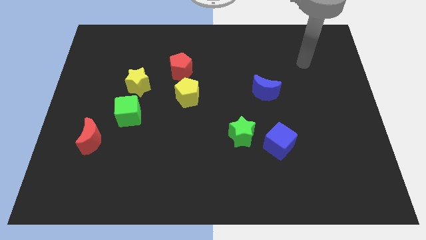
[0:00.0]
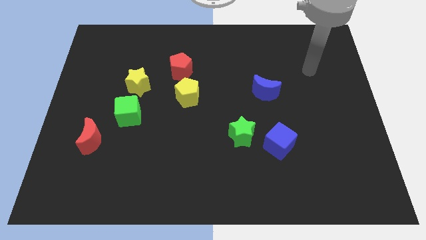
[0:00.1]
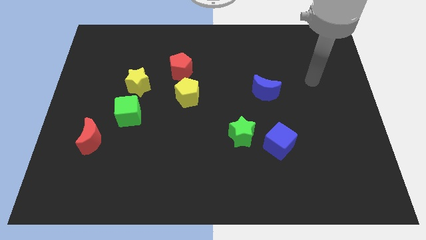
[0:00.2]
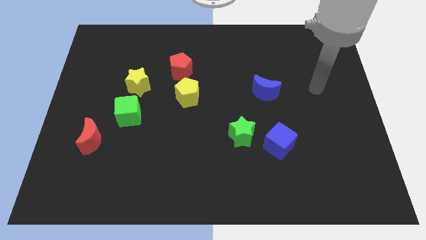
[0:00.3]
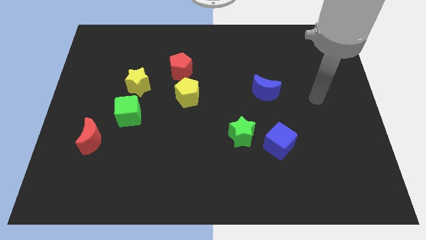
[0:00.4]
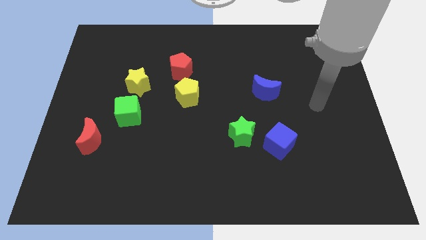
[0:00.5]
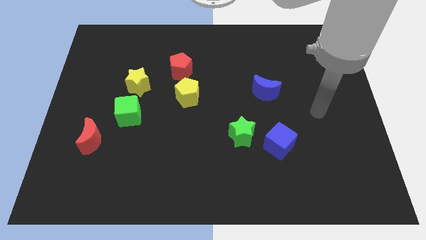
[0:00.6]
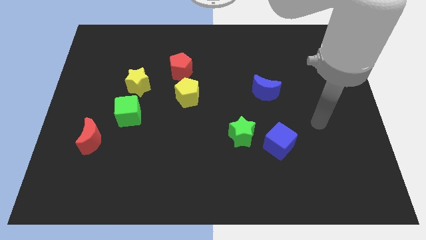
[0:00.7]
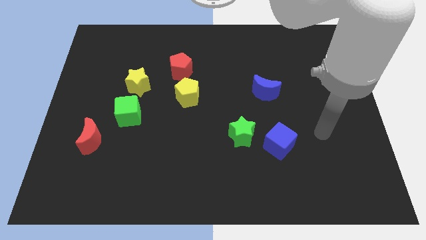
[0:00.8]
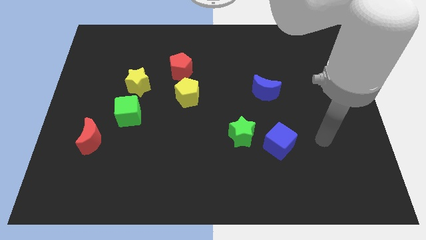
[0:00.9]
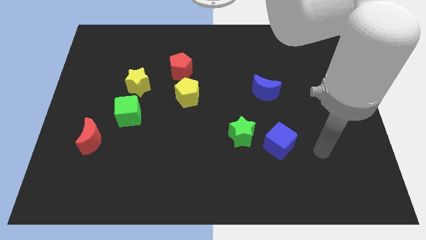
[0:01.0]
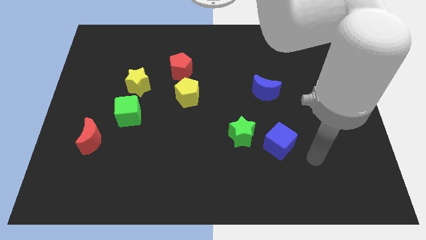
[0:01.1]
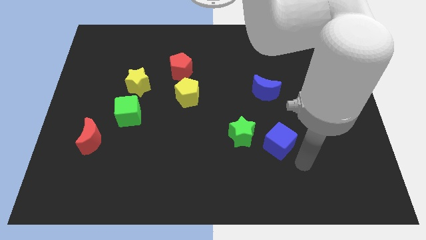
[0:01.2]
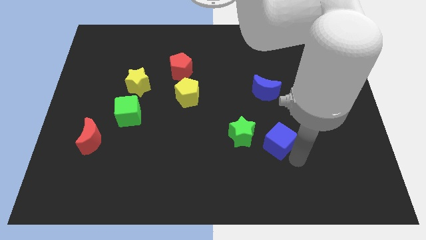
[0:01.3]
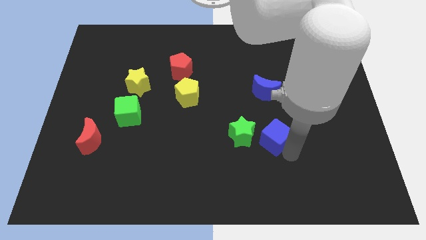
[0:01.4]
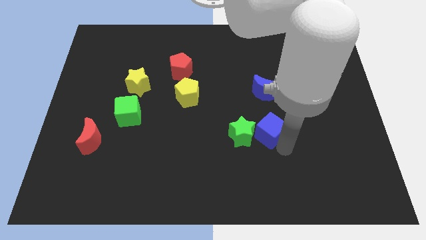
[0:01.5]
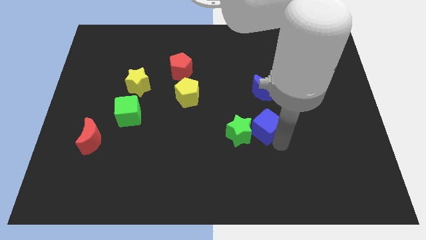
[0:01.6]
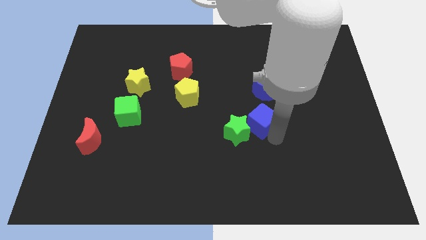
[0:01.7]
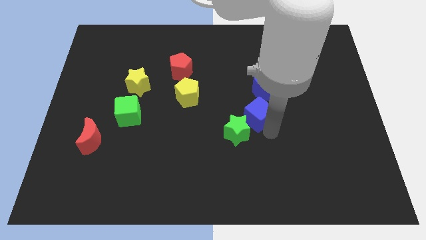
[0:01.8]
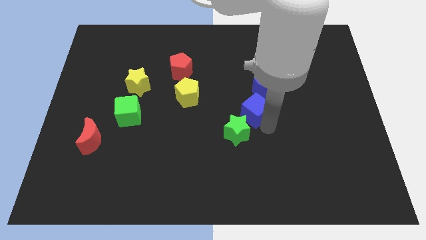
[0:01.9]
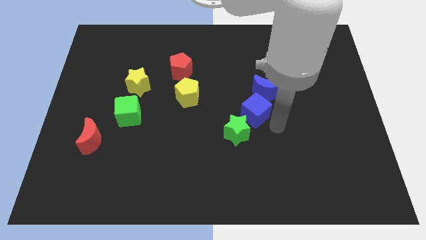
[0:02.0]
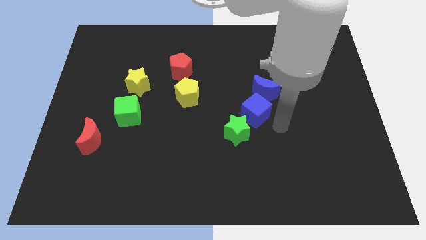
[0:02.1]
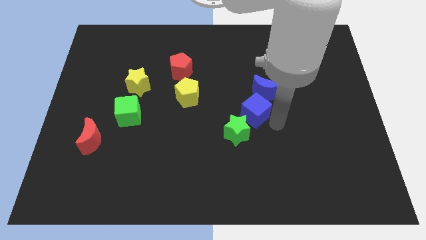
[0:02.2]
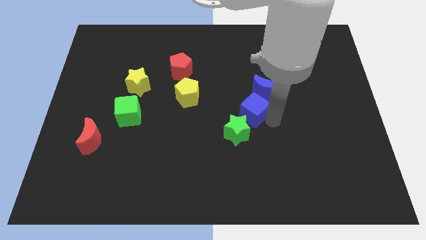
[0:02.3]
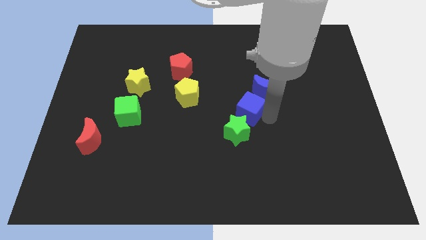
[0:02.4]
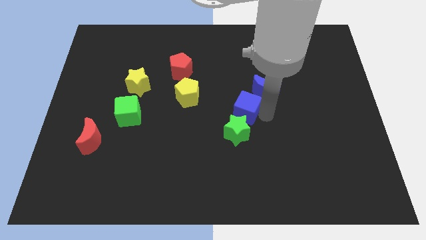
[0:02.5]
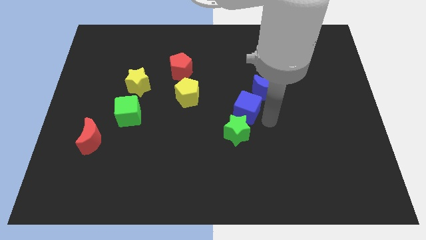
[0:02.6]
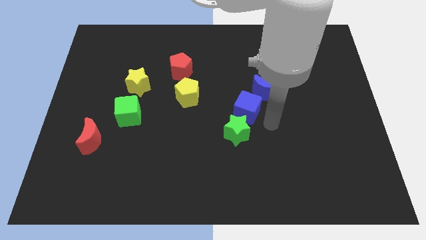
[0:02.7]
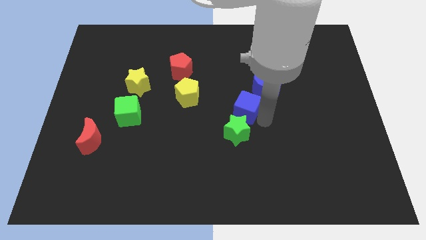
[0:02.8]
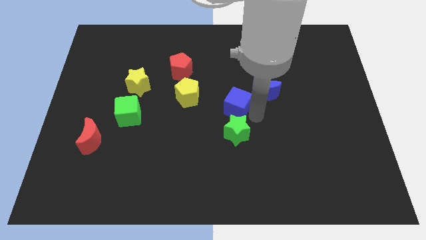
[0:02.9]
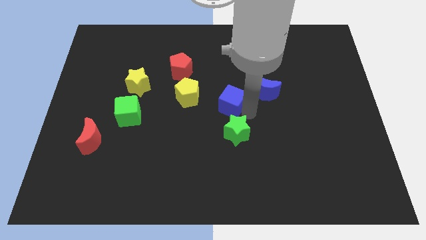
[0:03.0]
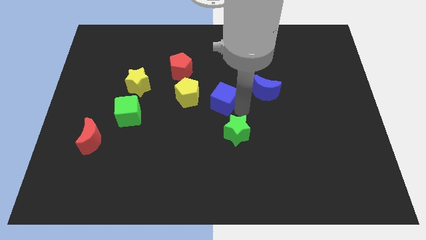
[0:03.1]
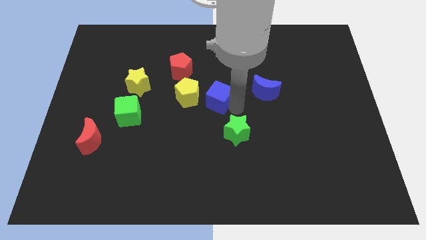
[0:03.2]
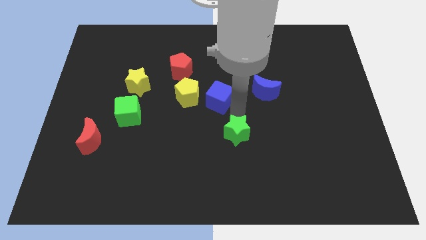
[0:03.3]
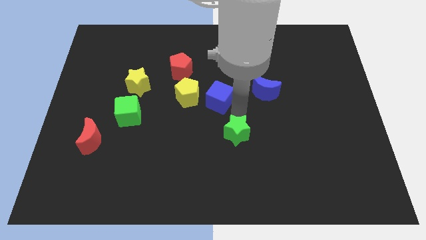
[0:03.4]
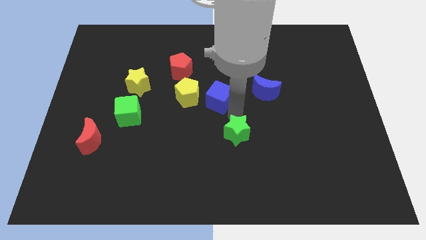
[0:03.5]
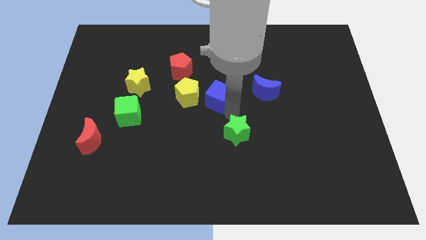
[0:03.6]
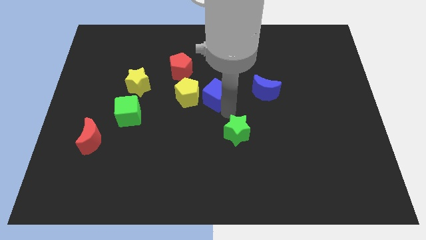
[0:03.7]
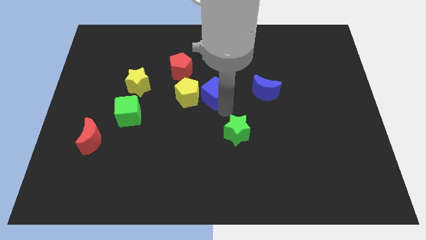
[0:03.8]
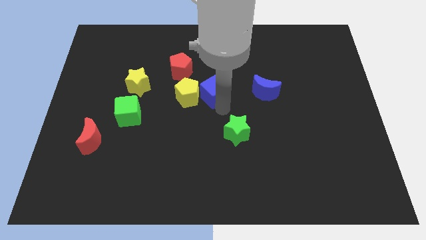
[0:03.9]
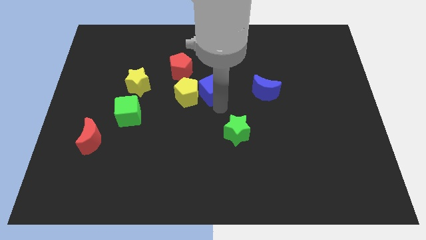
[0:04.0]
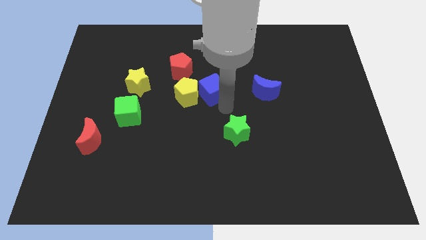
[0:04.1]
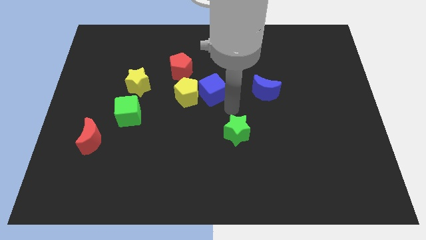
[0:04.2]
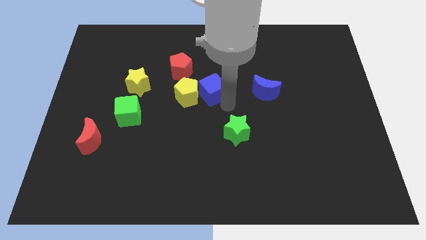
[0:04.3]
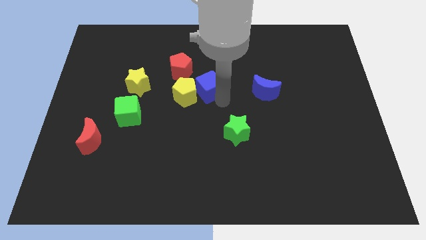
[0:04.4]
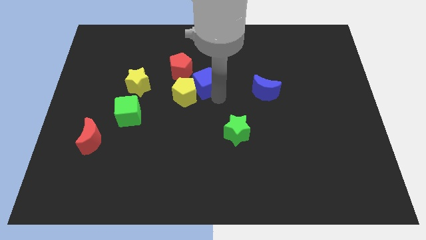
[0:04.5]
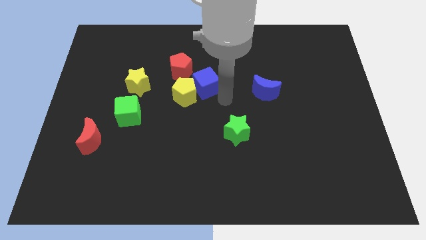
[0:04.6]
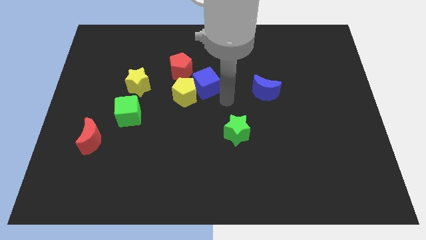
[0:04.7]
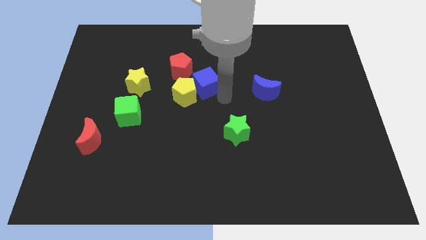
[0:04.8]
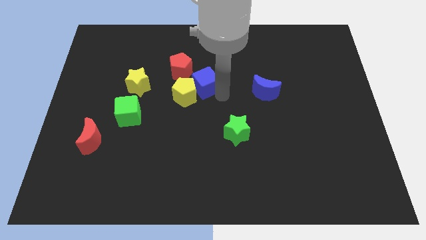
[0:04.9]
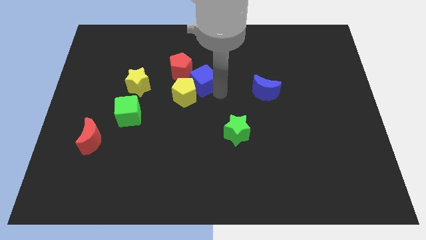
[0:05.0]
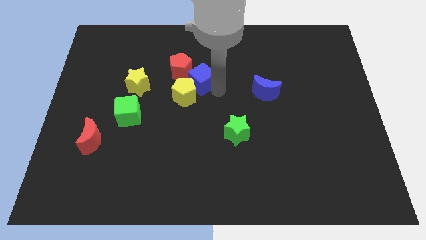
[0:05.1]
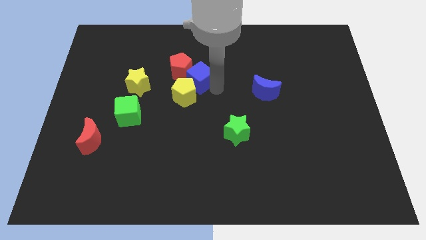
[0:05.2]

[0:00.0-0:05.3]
slide the blue cube close to the red pentagon

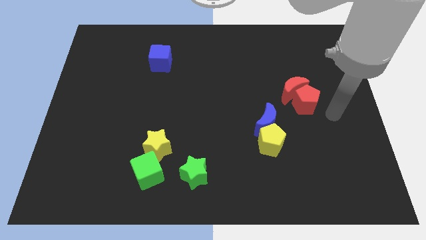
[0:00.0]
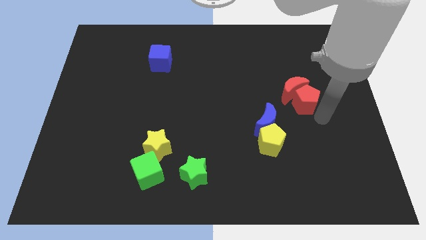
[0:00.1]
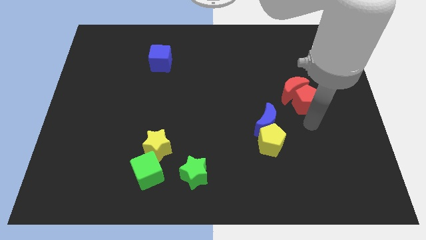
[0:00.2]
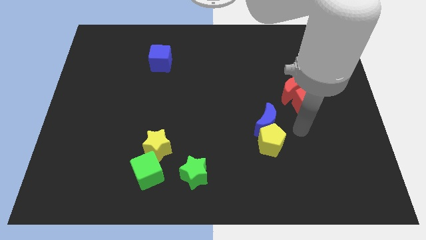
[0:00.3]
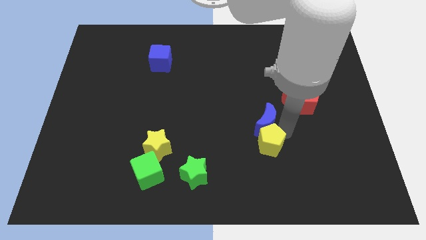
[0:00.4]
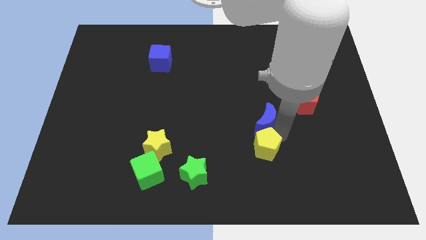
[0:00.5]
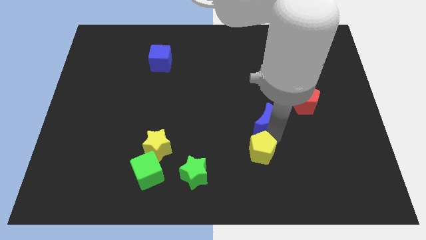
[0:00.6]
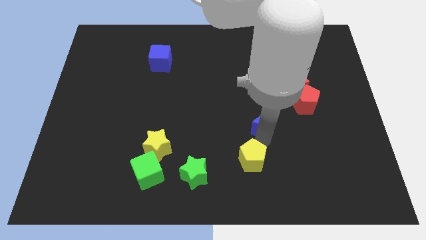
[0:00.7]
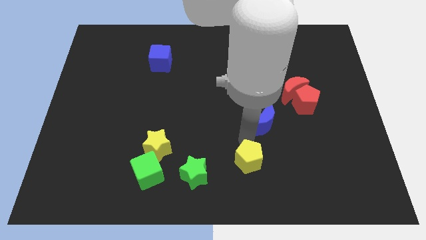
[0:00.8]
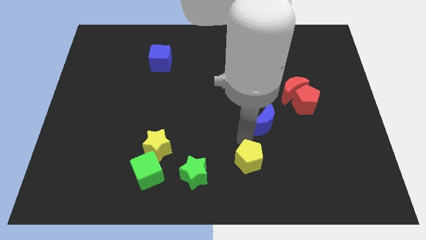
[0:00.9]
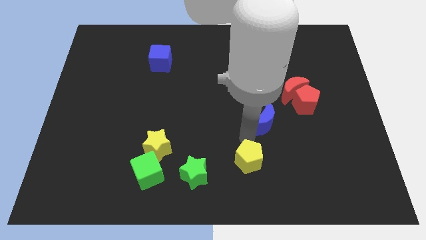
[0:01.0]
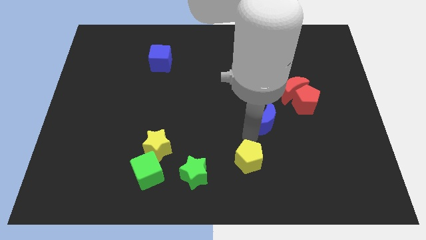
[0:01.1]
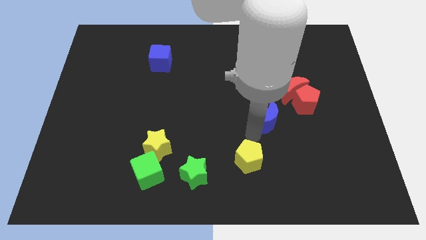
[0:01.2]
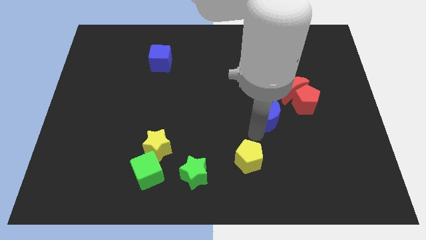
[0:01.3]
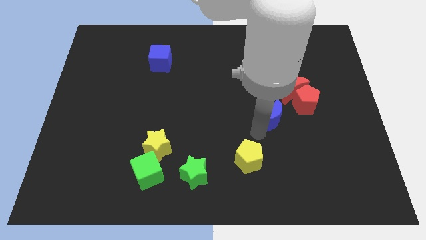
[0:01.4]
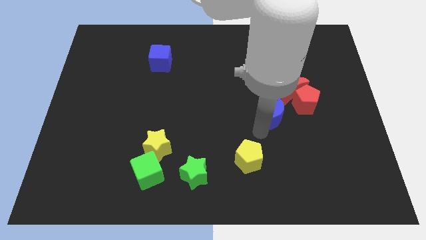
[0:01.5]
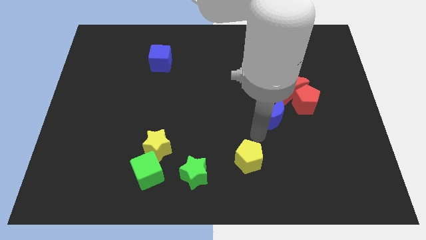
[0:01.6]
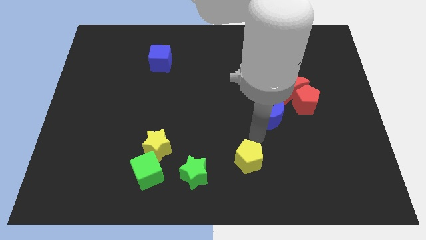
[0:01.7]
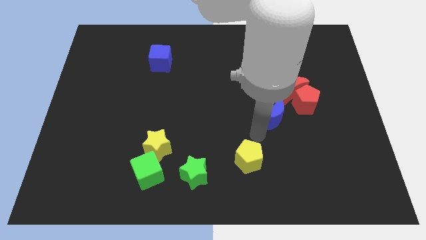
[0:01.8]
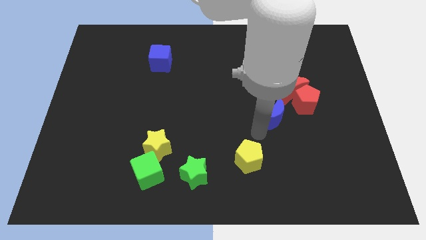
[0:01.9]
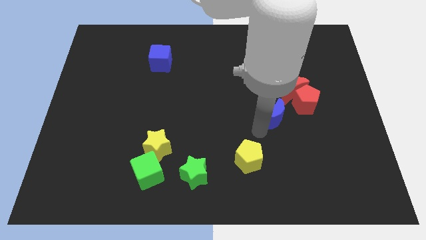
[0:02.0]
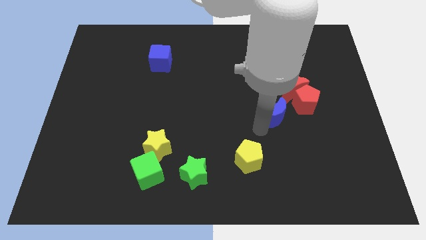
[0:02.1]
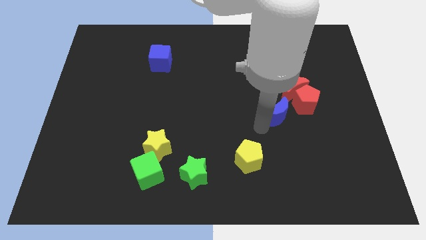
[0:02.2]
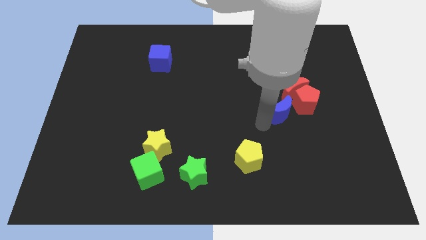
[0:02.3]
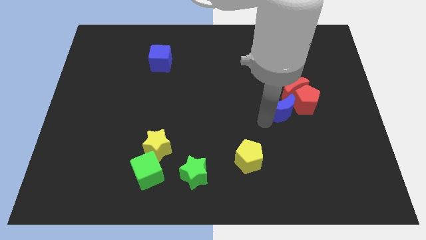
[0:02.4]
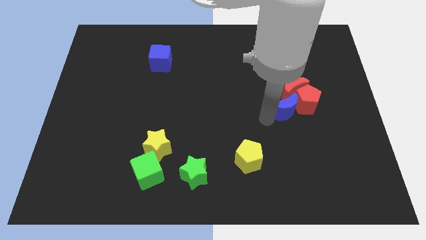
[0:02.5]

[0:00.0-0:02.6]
push the blue moon to the red moon
